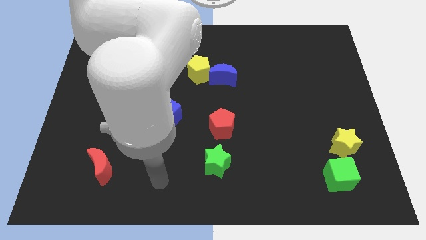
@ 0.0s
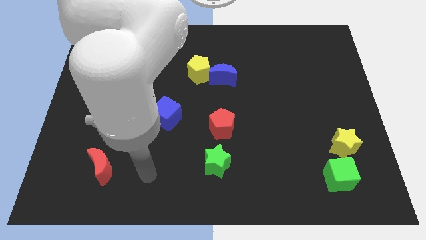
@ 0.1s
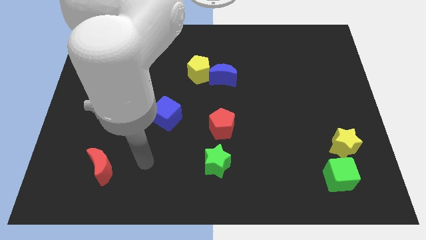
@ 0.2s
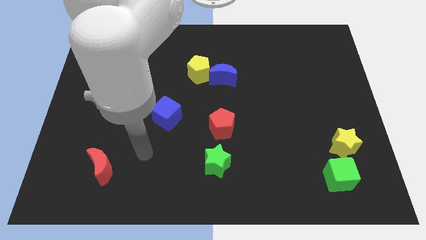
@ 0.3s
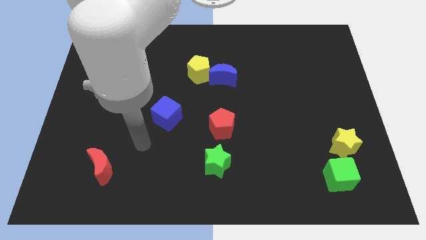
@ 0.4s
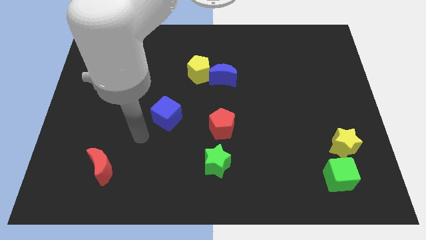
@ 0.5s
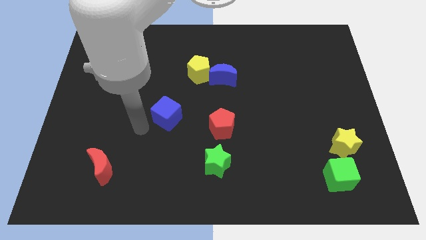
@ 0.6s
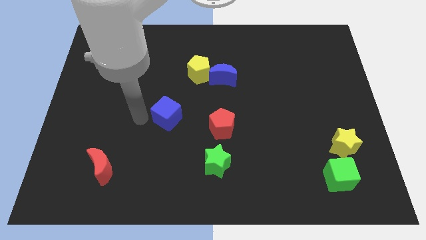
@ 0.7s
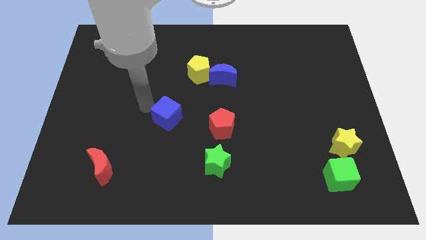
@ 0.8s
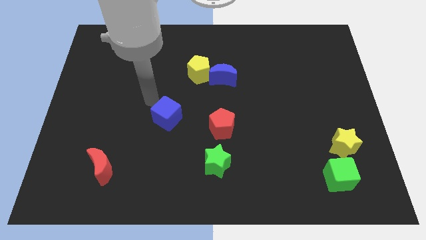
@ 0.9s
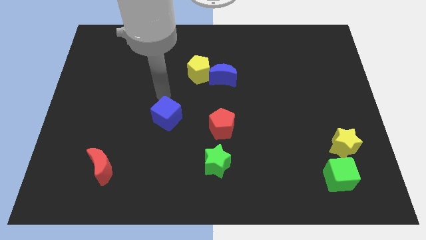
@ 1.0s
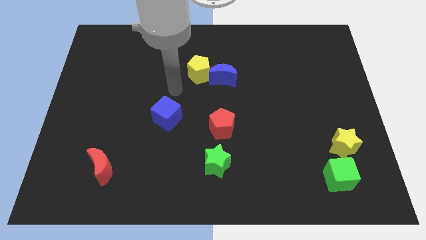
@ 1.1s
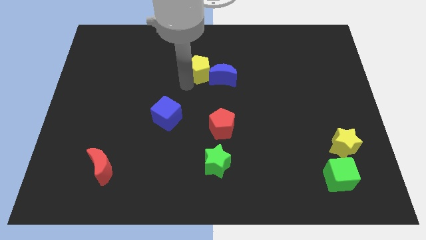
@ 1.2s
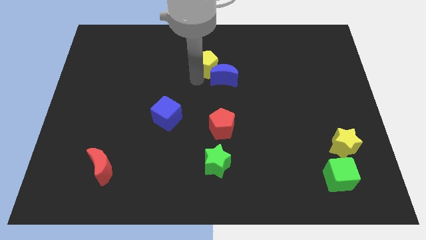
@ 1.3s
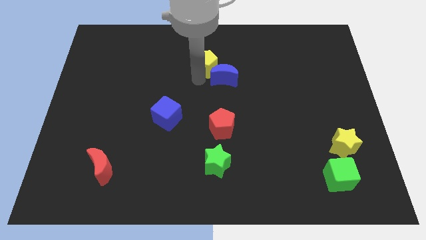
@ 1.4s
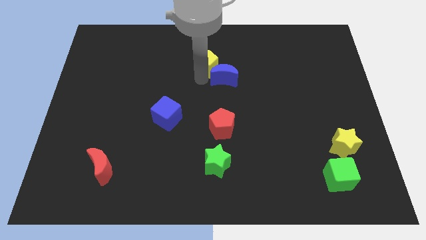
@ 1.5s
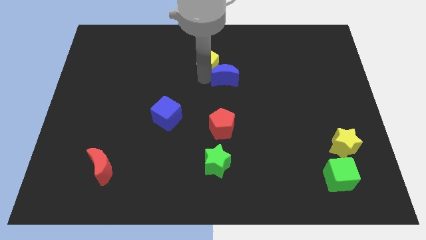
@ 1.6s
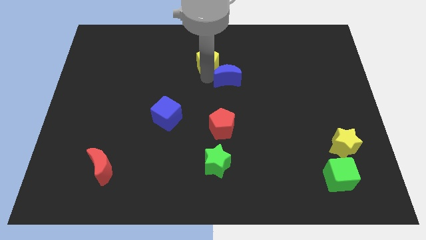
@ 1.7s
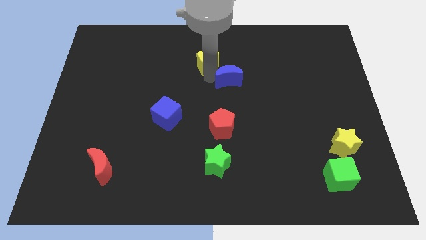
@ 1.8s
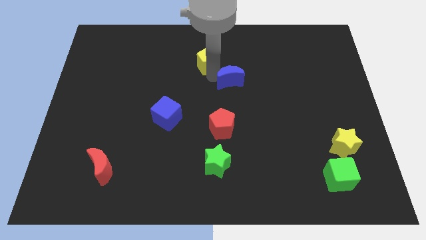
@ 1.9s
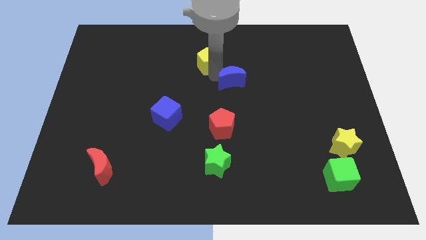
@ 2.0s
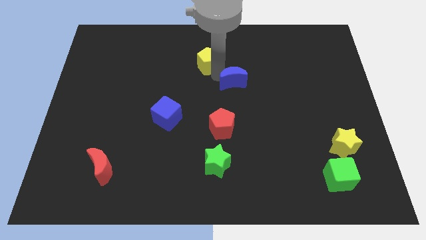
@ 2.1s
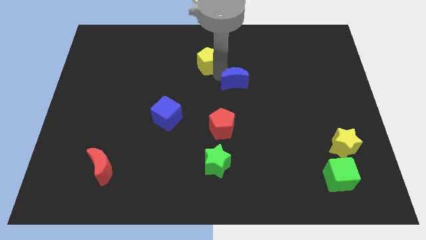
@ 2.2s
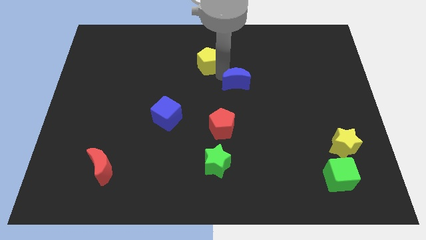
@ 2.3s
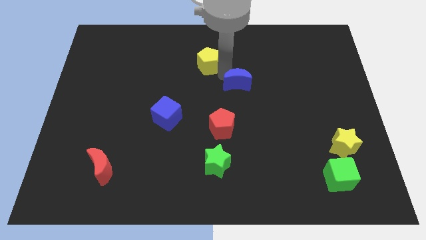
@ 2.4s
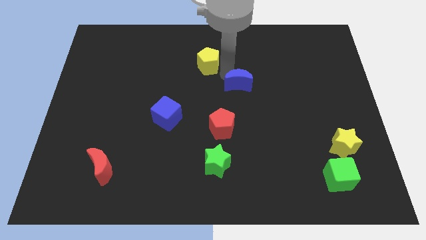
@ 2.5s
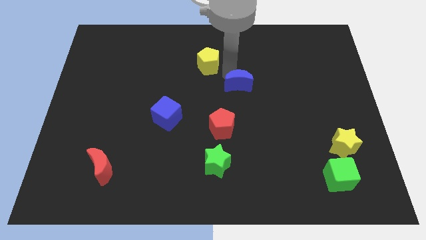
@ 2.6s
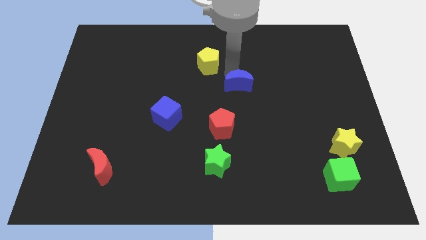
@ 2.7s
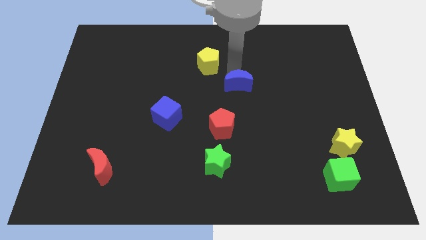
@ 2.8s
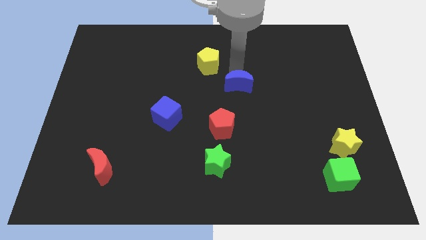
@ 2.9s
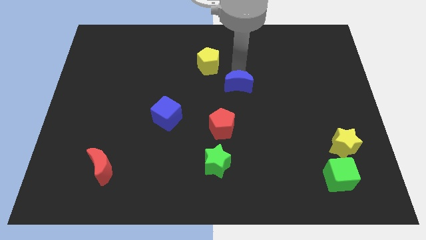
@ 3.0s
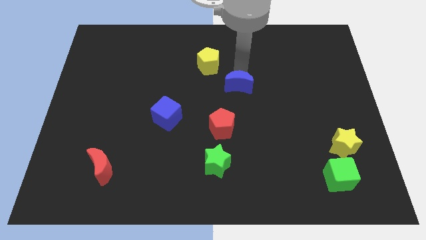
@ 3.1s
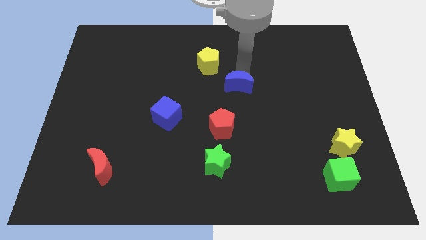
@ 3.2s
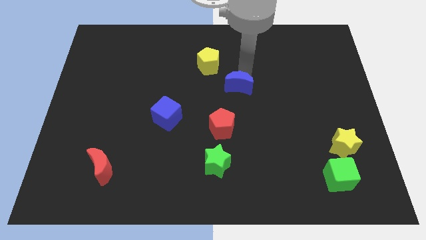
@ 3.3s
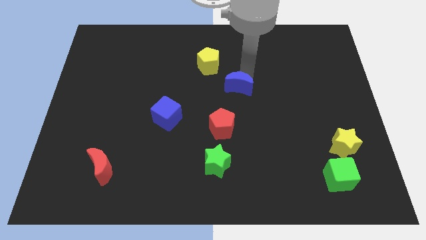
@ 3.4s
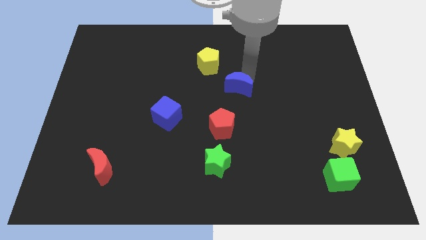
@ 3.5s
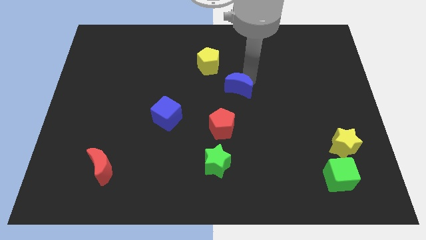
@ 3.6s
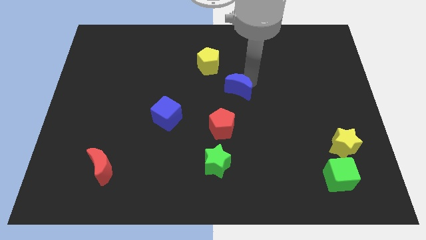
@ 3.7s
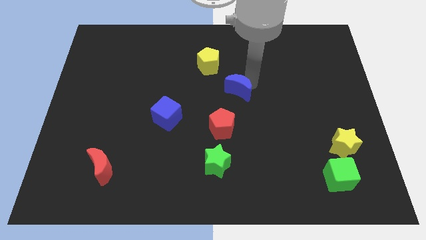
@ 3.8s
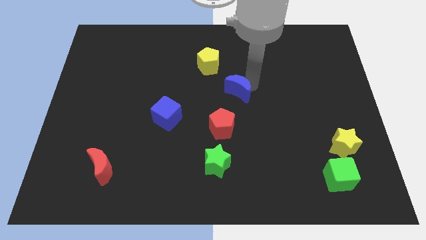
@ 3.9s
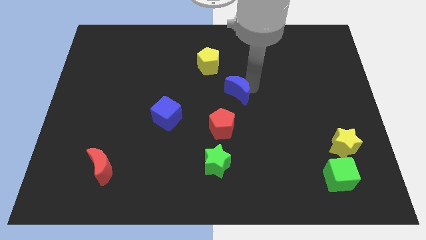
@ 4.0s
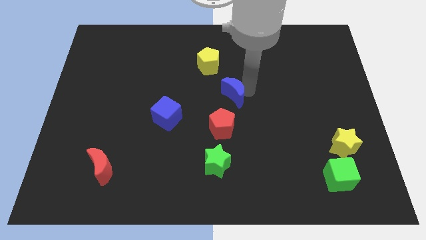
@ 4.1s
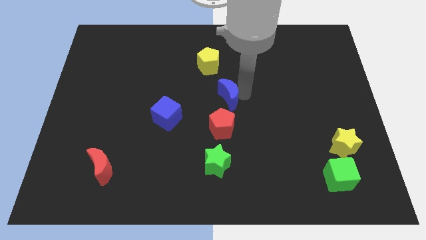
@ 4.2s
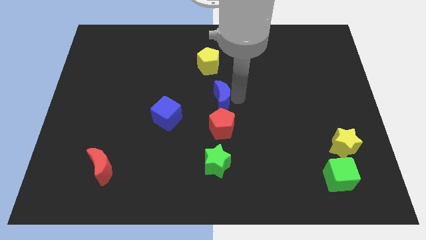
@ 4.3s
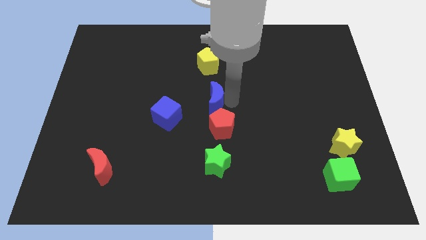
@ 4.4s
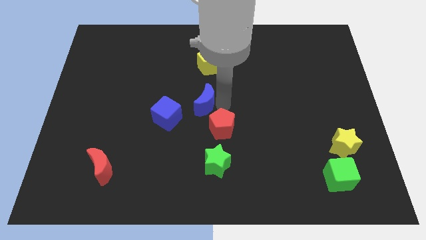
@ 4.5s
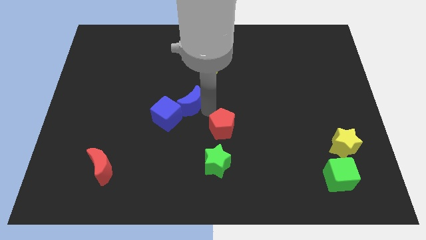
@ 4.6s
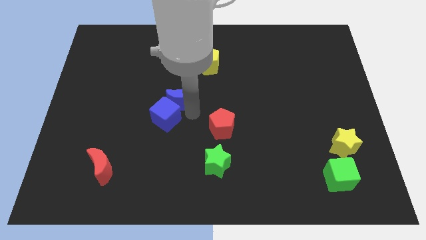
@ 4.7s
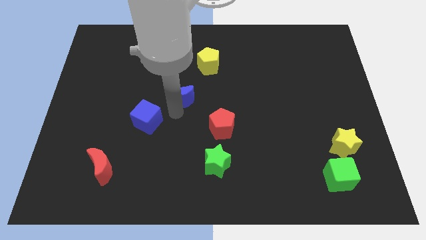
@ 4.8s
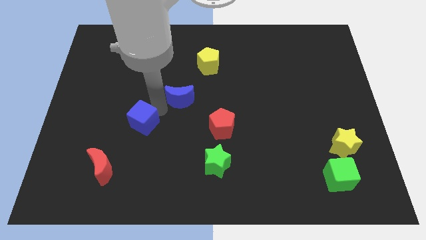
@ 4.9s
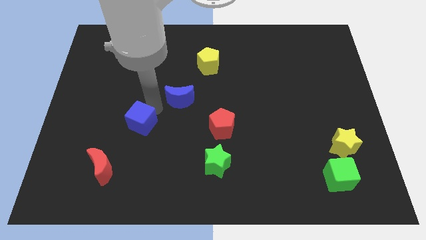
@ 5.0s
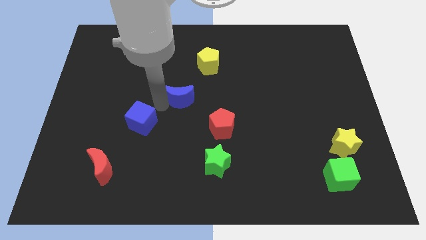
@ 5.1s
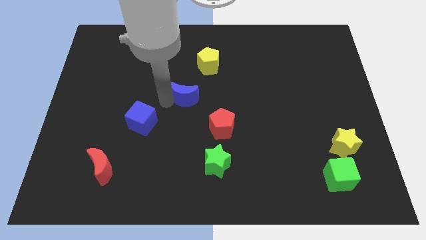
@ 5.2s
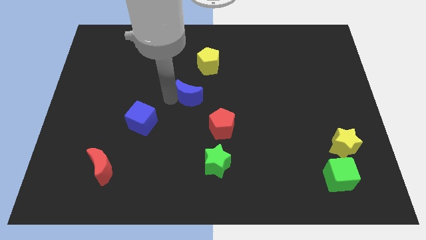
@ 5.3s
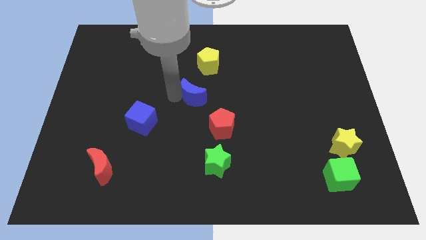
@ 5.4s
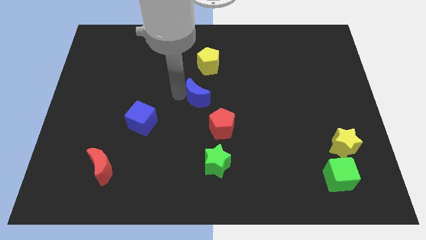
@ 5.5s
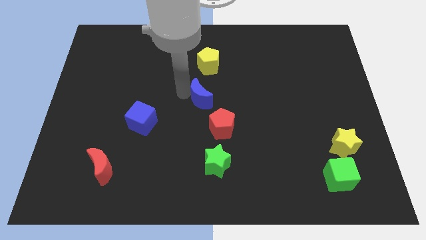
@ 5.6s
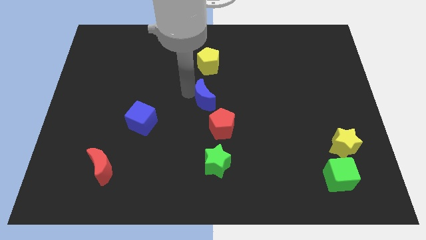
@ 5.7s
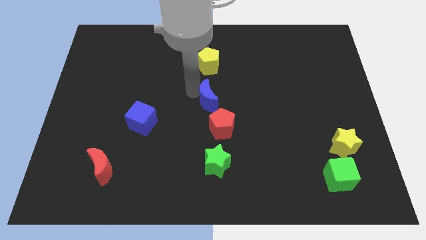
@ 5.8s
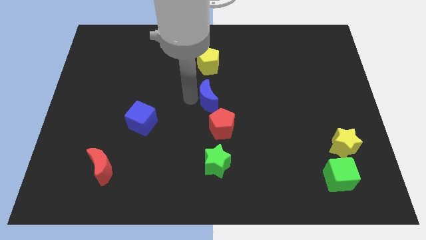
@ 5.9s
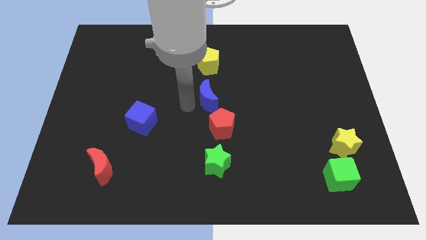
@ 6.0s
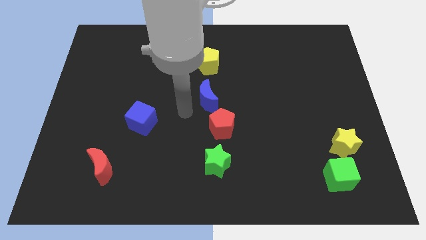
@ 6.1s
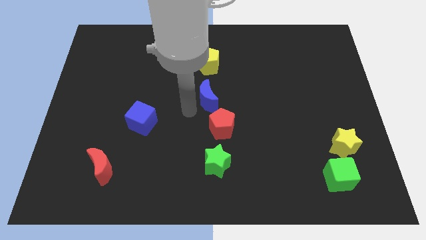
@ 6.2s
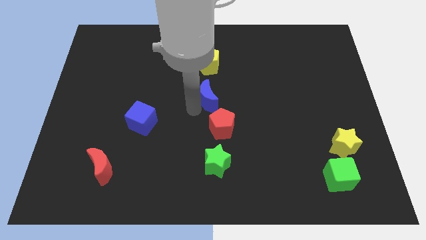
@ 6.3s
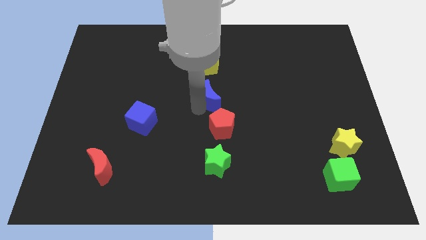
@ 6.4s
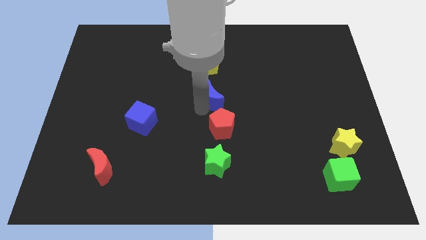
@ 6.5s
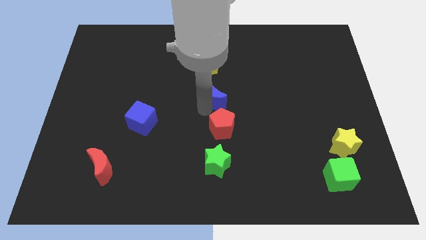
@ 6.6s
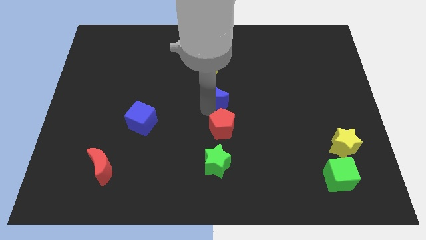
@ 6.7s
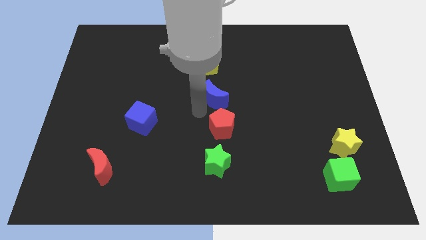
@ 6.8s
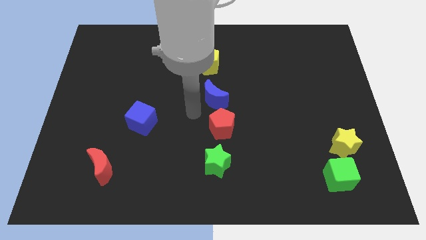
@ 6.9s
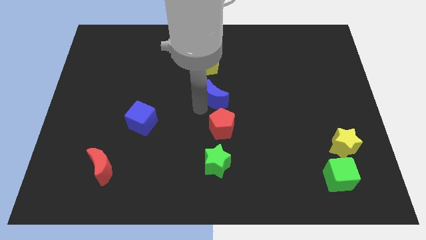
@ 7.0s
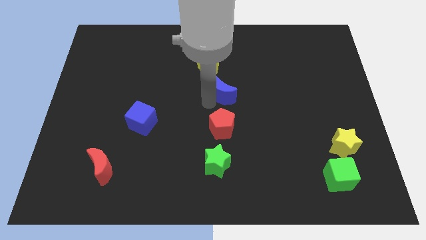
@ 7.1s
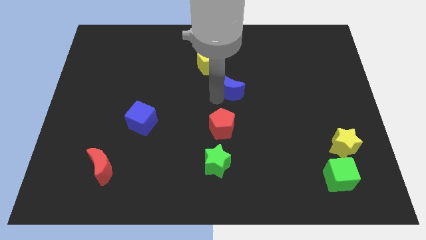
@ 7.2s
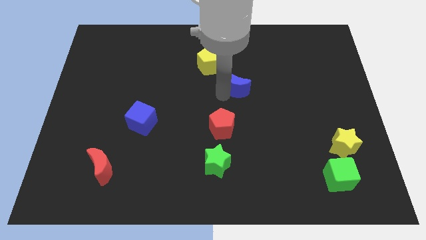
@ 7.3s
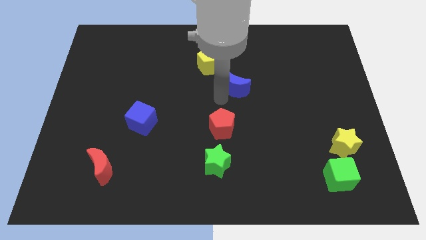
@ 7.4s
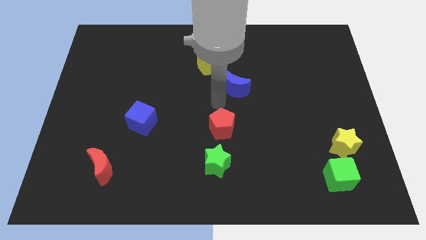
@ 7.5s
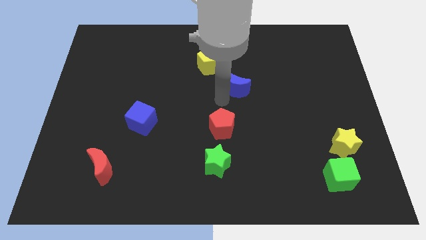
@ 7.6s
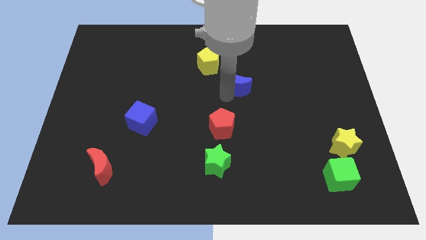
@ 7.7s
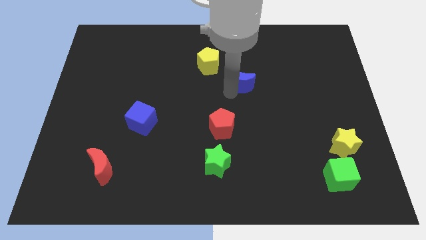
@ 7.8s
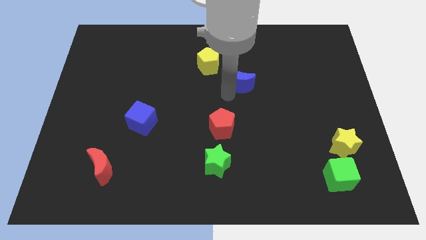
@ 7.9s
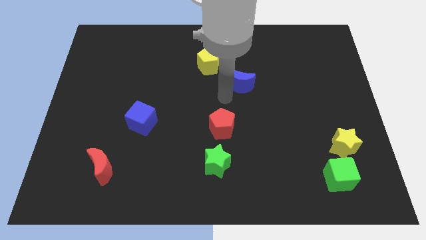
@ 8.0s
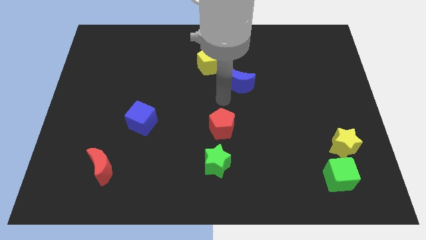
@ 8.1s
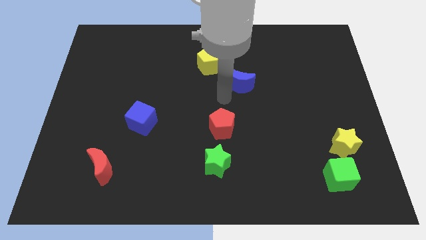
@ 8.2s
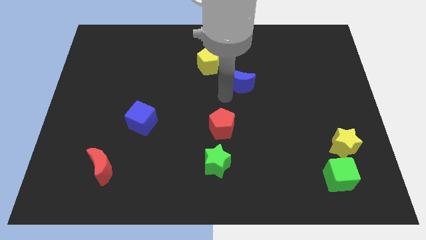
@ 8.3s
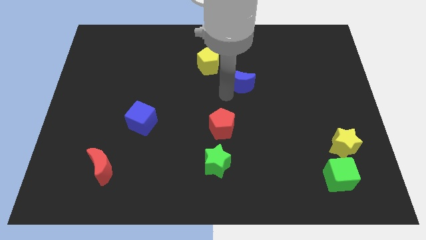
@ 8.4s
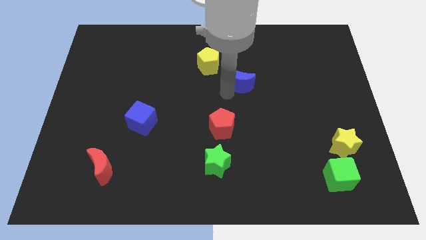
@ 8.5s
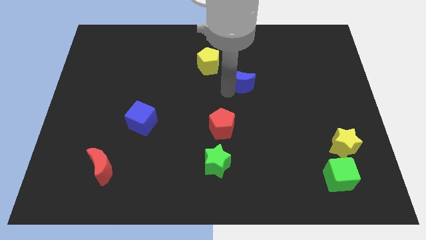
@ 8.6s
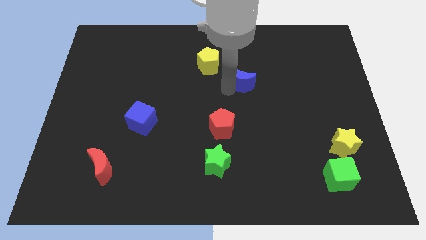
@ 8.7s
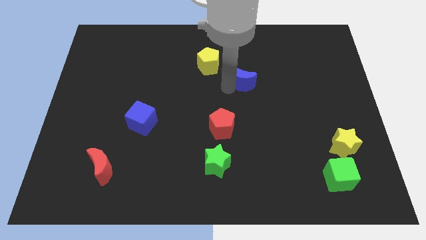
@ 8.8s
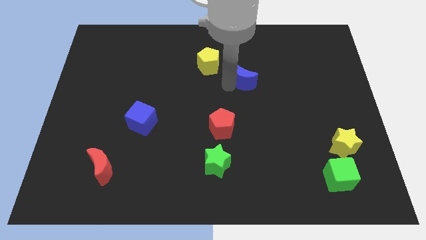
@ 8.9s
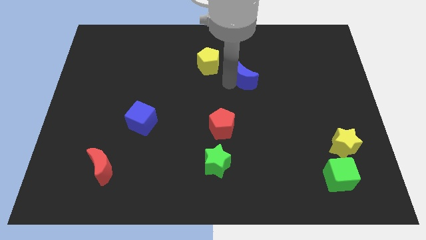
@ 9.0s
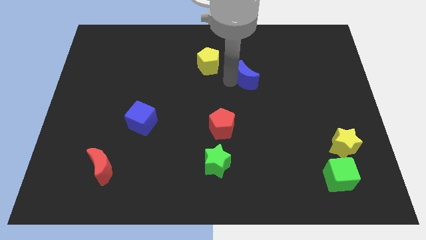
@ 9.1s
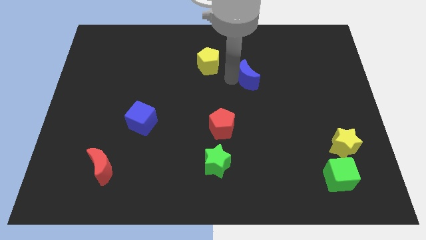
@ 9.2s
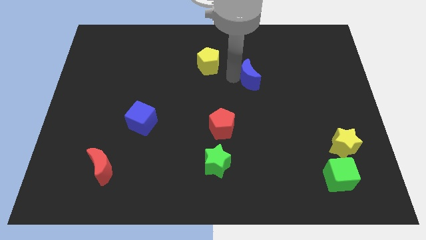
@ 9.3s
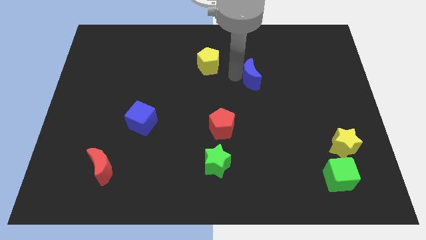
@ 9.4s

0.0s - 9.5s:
slide the blue moon a little right
